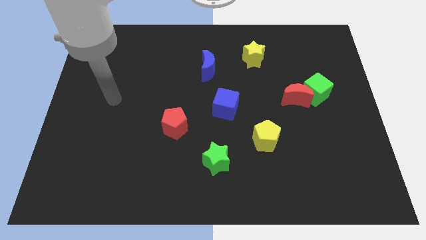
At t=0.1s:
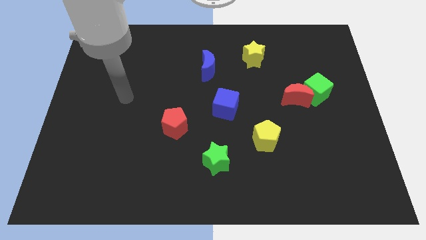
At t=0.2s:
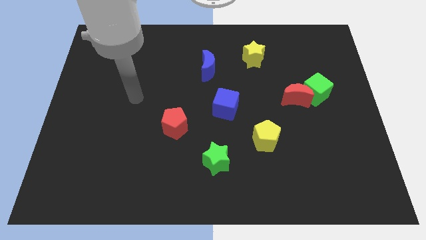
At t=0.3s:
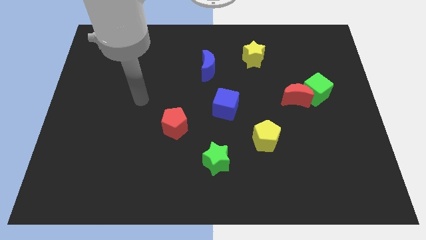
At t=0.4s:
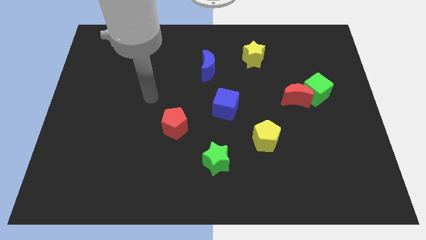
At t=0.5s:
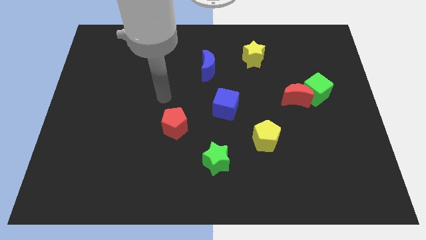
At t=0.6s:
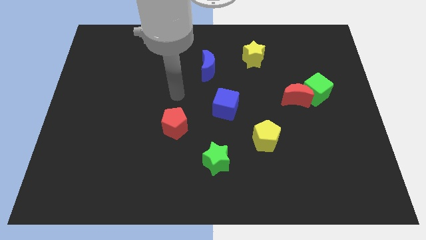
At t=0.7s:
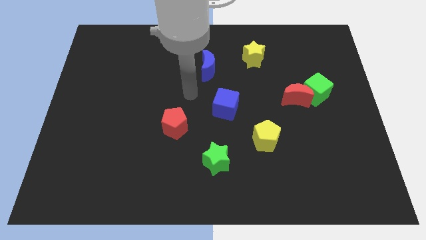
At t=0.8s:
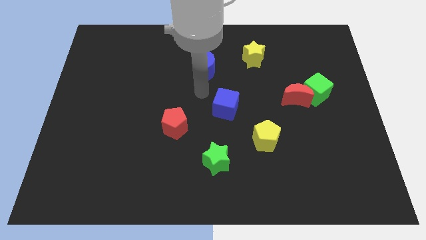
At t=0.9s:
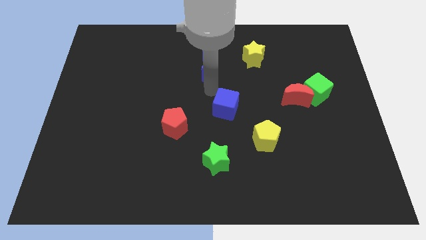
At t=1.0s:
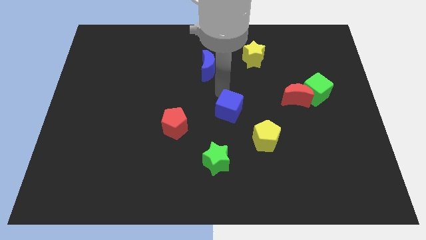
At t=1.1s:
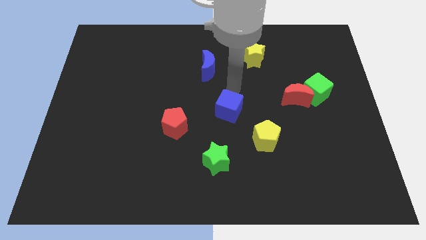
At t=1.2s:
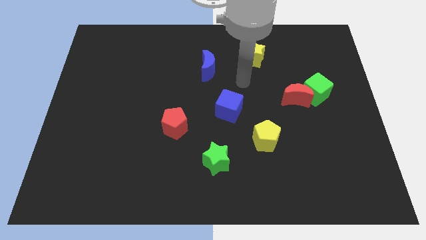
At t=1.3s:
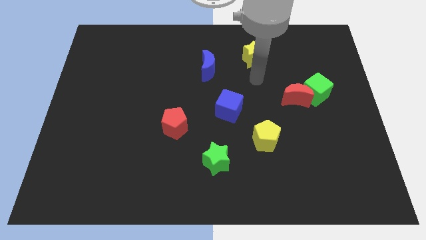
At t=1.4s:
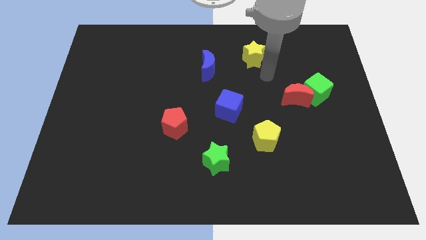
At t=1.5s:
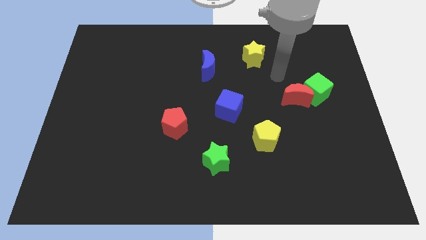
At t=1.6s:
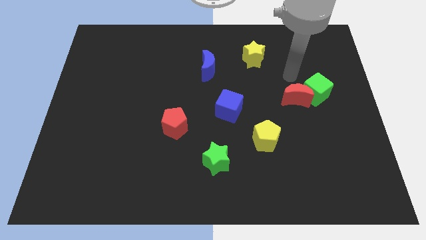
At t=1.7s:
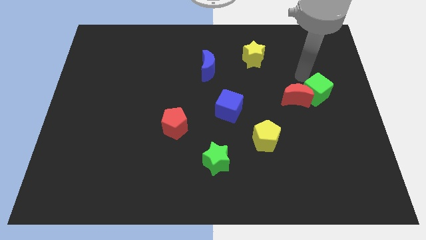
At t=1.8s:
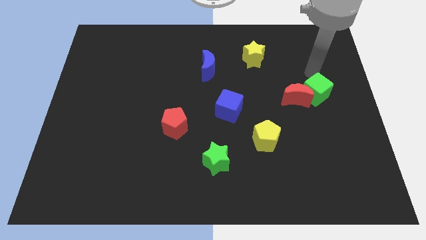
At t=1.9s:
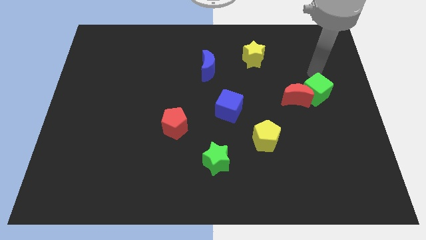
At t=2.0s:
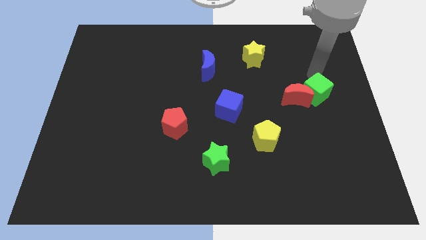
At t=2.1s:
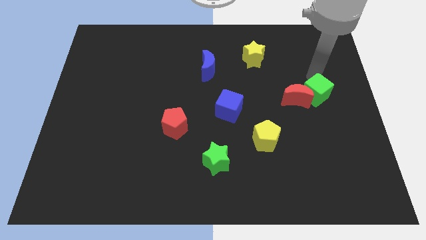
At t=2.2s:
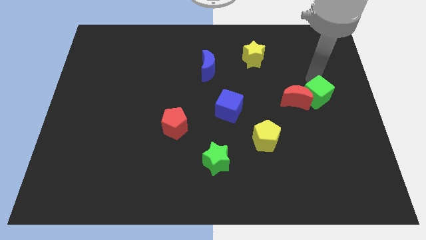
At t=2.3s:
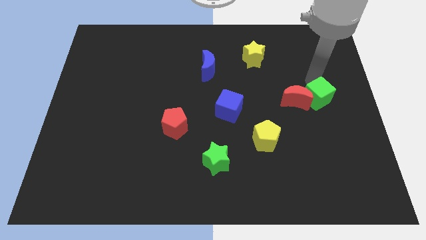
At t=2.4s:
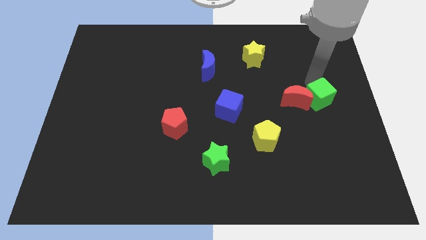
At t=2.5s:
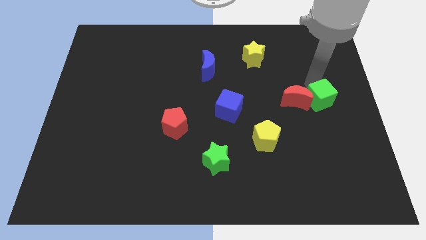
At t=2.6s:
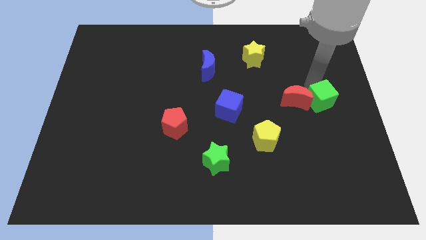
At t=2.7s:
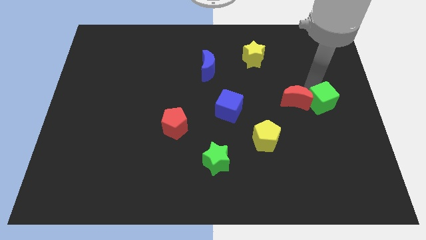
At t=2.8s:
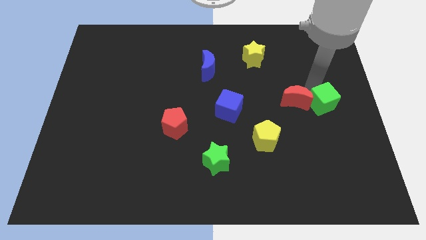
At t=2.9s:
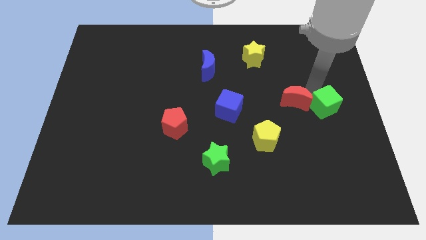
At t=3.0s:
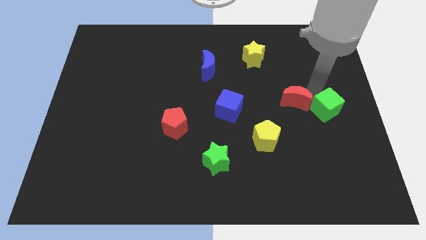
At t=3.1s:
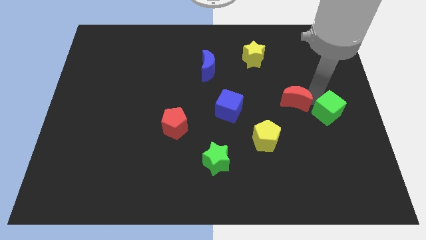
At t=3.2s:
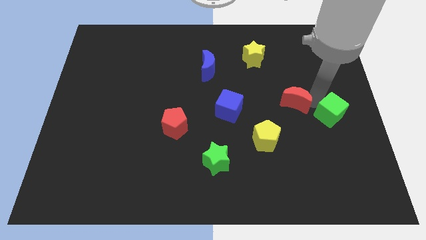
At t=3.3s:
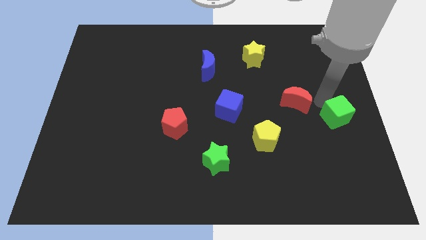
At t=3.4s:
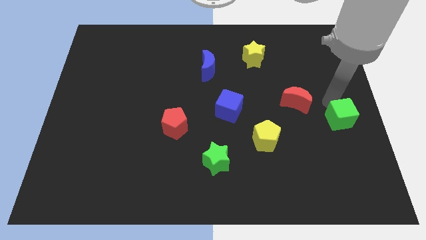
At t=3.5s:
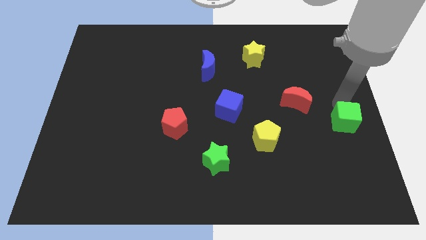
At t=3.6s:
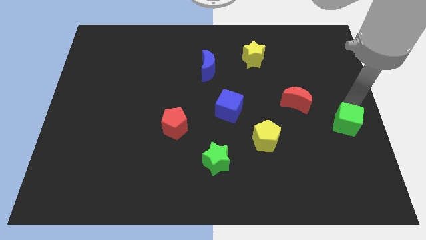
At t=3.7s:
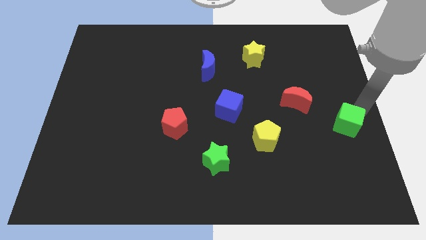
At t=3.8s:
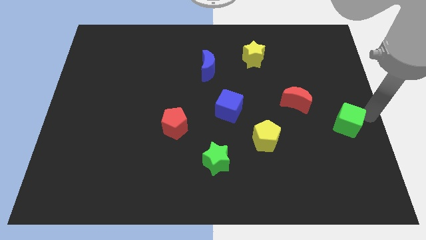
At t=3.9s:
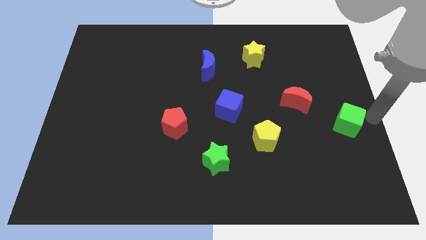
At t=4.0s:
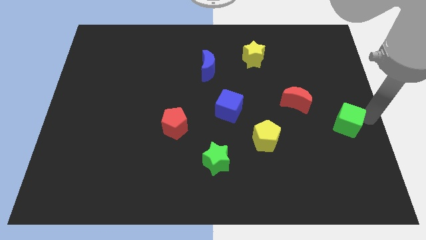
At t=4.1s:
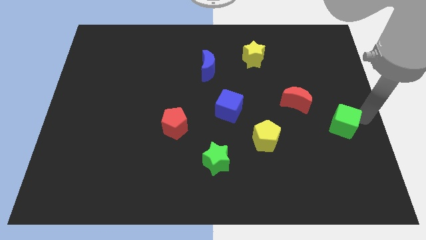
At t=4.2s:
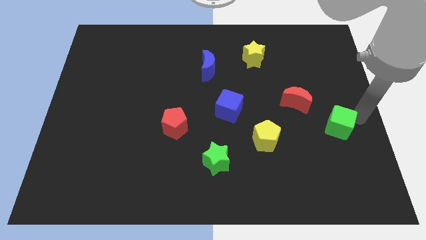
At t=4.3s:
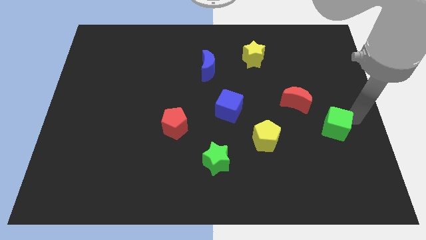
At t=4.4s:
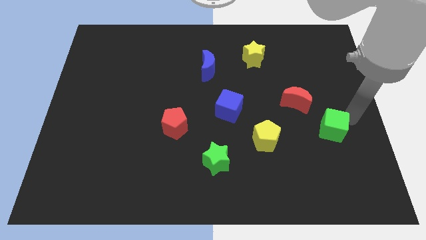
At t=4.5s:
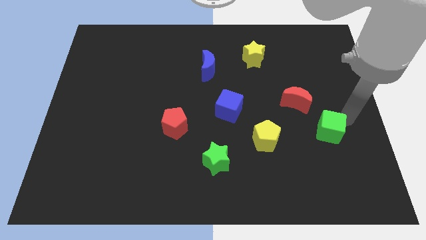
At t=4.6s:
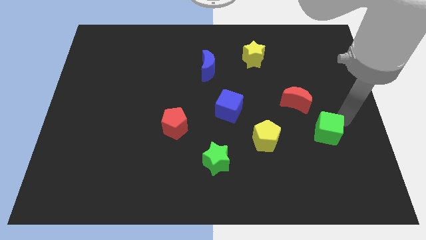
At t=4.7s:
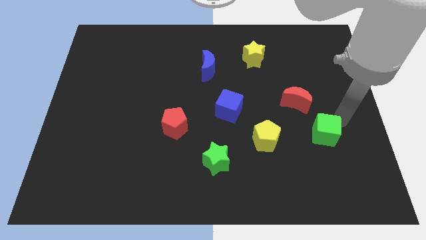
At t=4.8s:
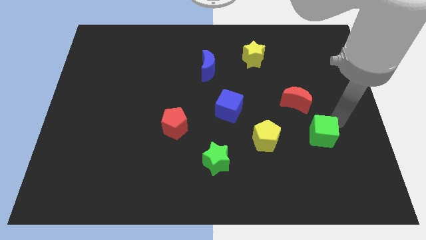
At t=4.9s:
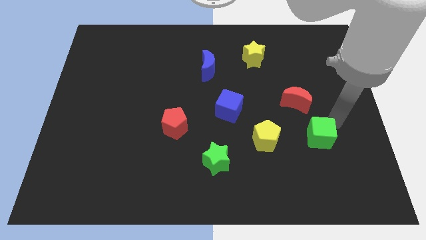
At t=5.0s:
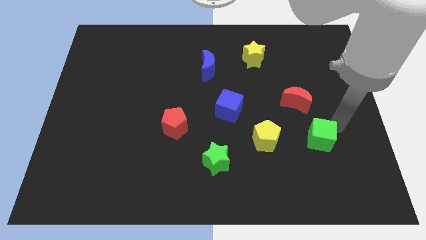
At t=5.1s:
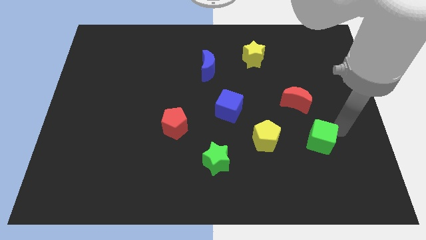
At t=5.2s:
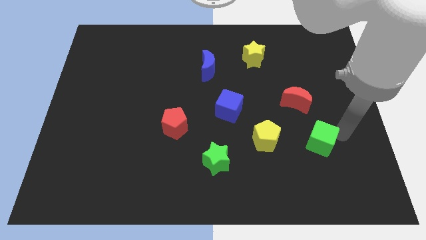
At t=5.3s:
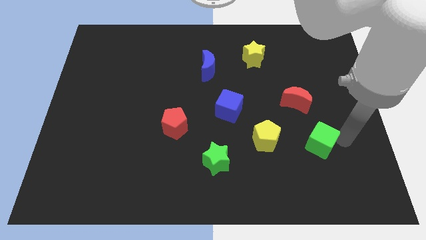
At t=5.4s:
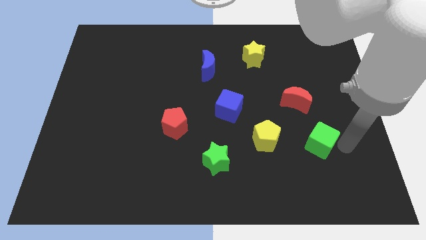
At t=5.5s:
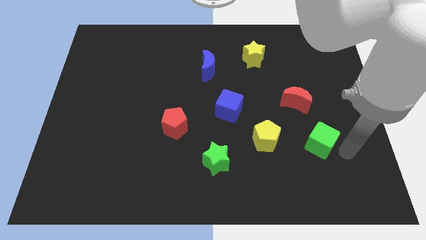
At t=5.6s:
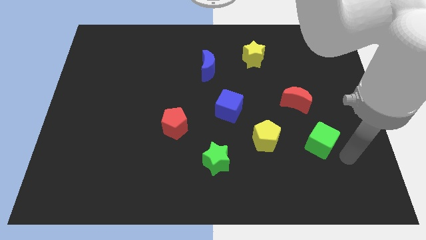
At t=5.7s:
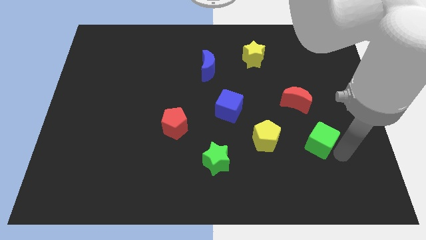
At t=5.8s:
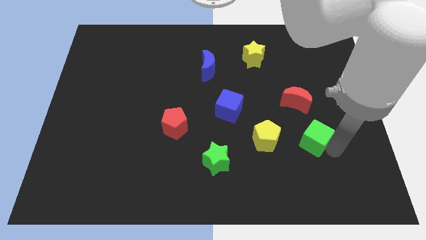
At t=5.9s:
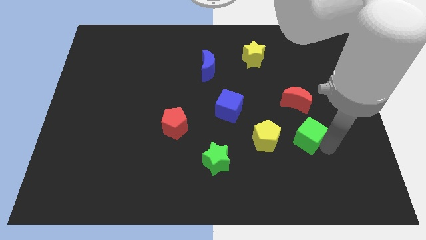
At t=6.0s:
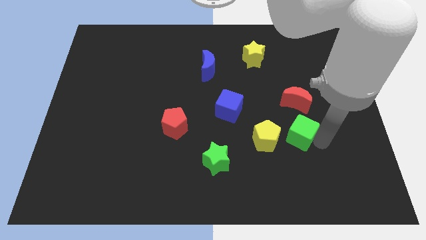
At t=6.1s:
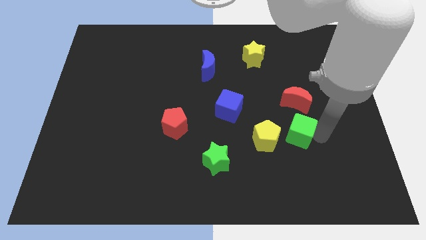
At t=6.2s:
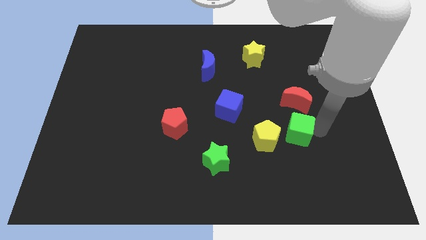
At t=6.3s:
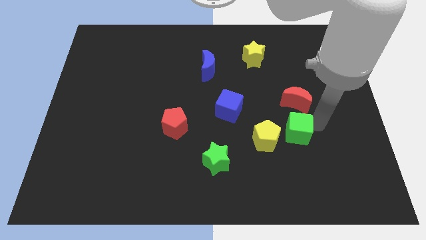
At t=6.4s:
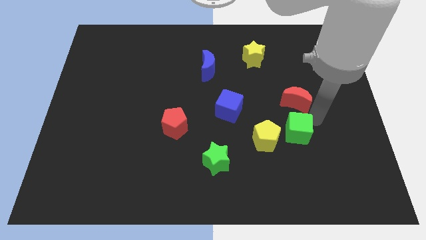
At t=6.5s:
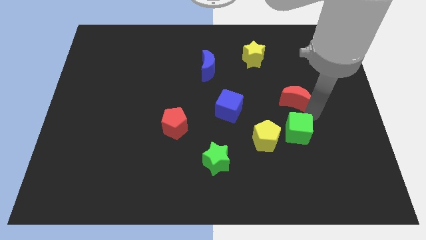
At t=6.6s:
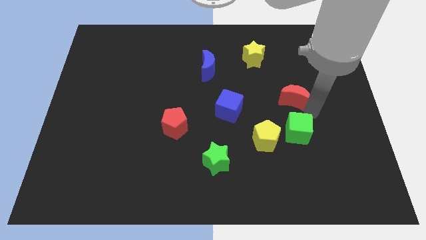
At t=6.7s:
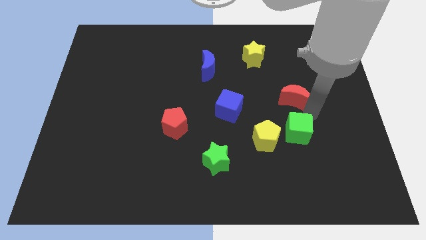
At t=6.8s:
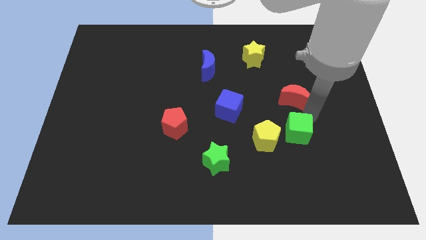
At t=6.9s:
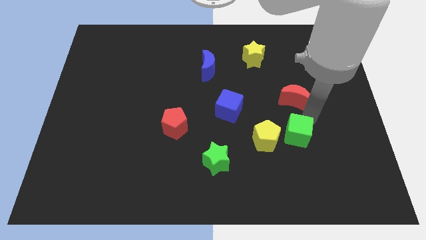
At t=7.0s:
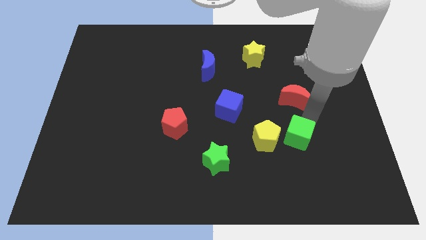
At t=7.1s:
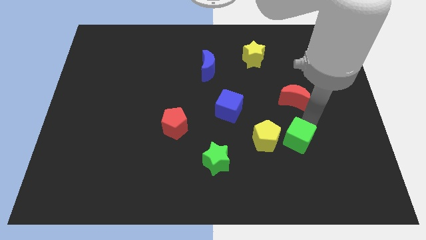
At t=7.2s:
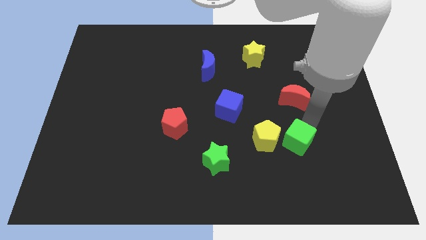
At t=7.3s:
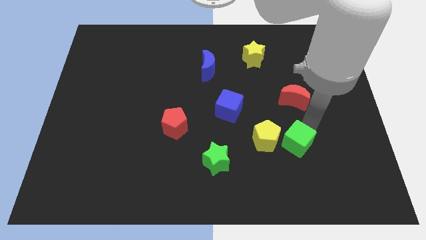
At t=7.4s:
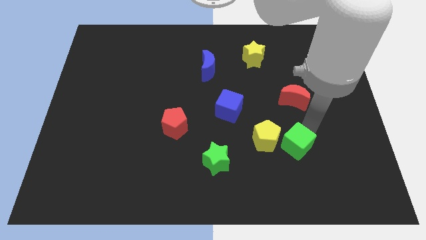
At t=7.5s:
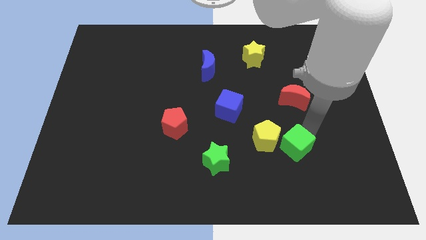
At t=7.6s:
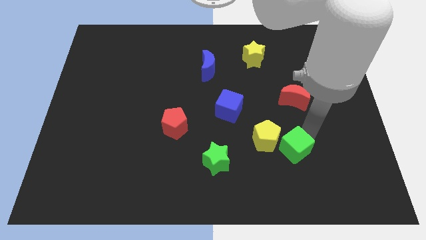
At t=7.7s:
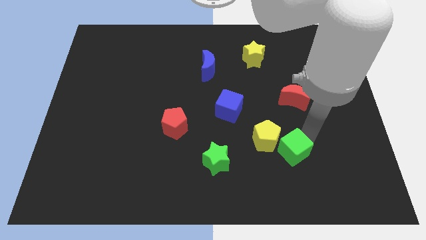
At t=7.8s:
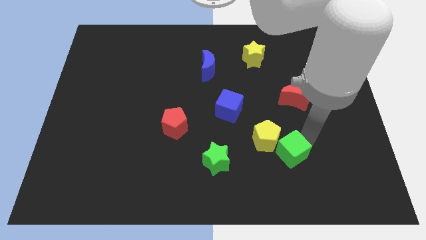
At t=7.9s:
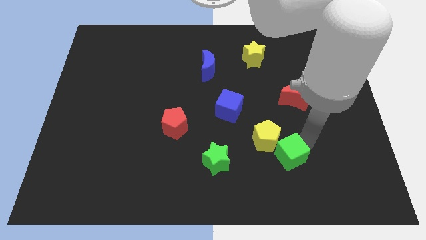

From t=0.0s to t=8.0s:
push the green cube just right of the green star
